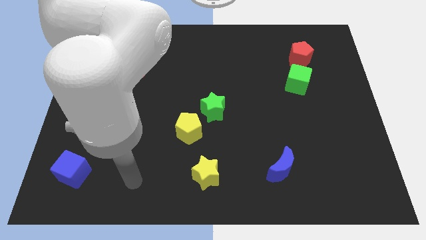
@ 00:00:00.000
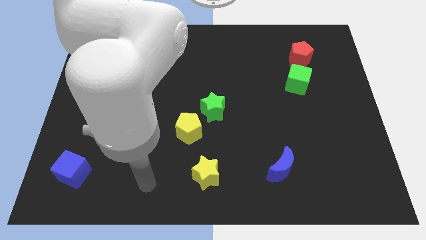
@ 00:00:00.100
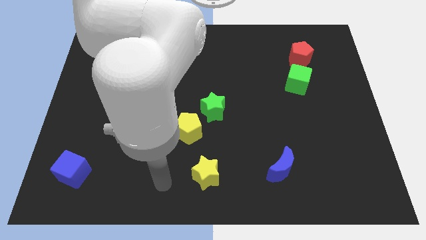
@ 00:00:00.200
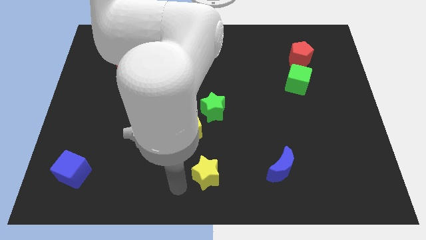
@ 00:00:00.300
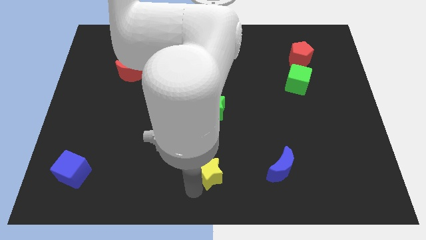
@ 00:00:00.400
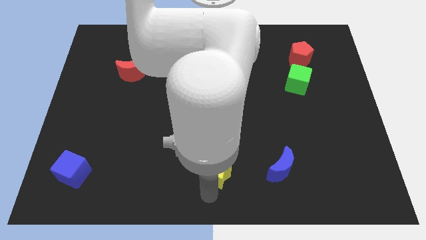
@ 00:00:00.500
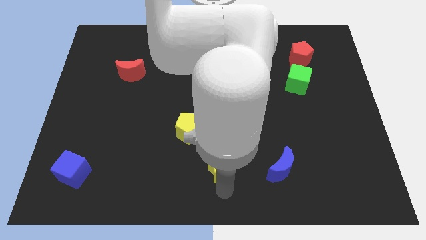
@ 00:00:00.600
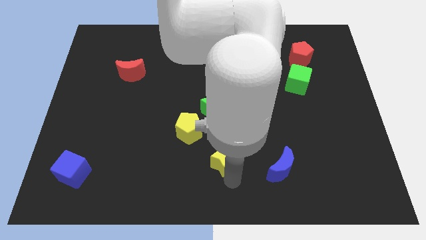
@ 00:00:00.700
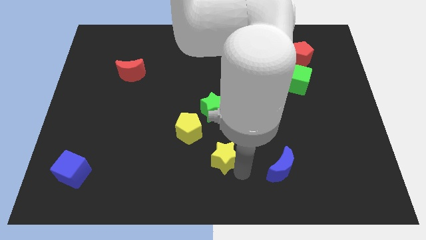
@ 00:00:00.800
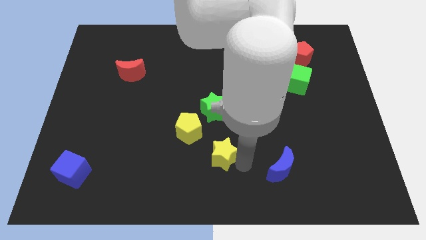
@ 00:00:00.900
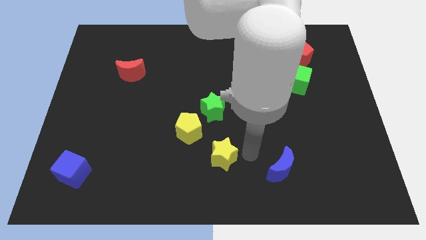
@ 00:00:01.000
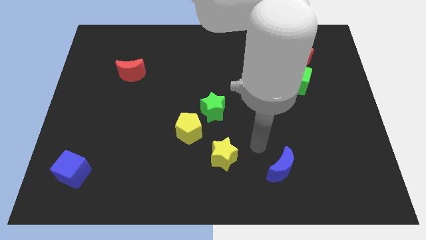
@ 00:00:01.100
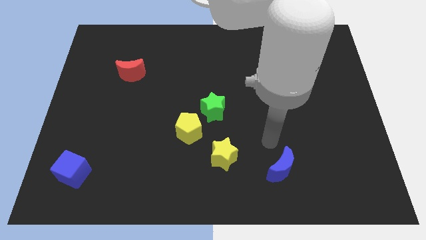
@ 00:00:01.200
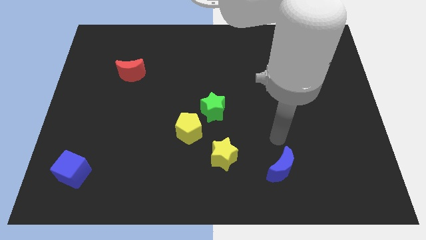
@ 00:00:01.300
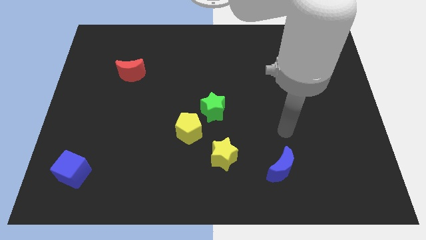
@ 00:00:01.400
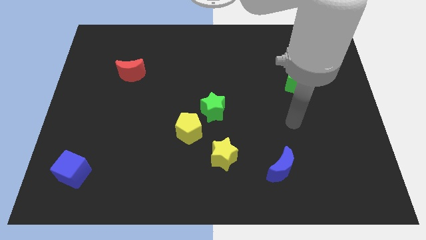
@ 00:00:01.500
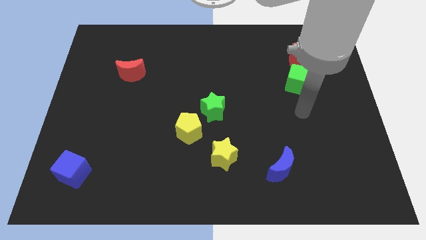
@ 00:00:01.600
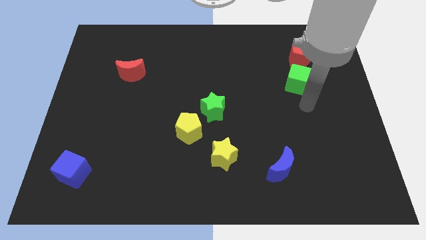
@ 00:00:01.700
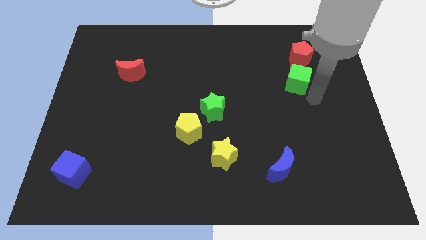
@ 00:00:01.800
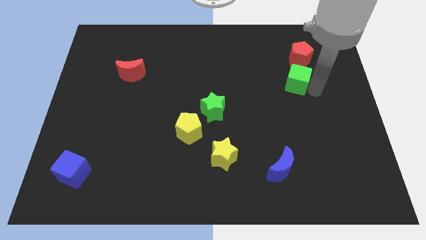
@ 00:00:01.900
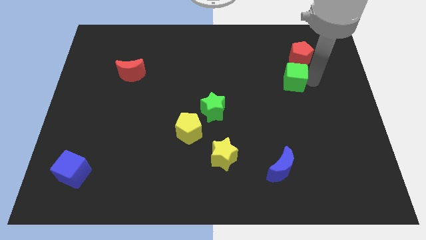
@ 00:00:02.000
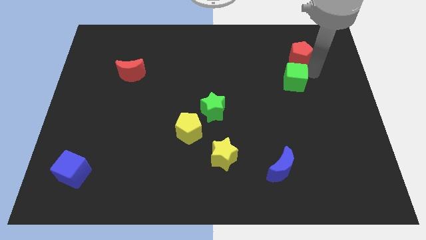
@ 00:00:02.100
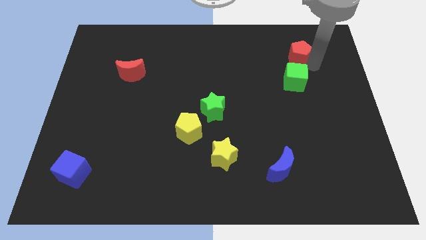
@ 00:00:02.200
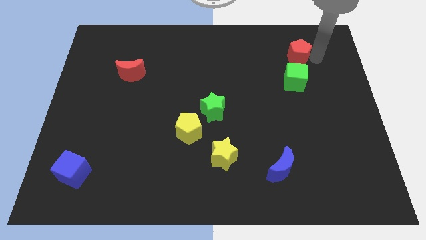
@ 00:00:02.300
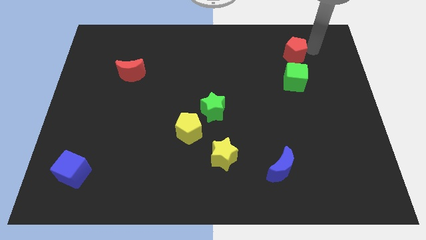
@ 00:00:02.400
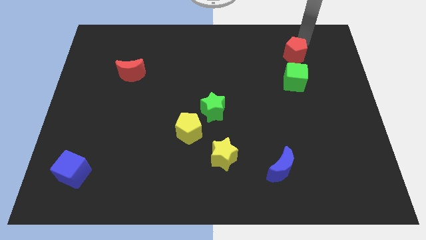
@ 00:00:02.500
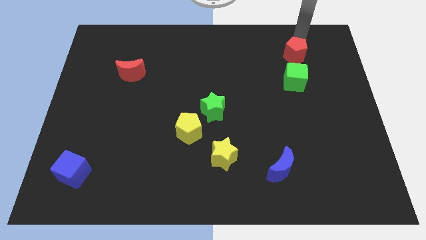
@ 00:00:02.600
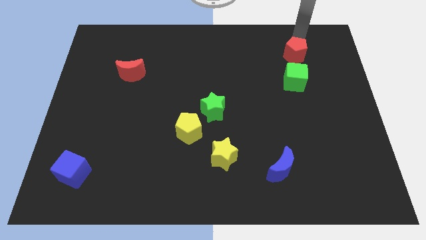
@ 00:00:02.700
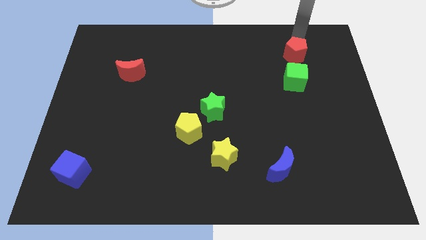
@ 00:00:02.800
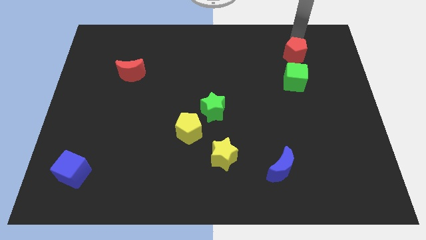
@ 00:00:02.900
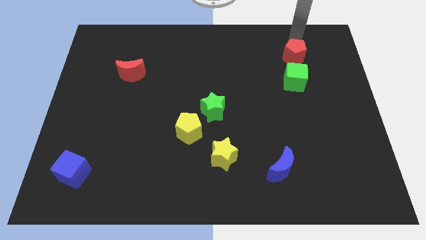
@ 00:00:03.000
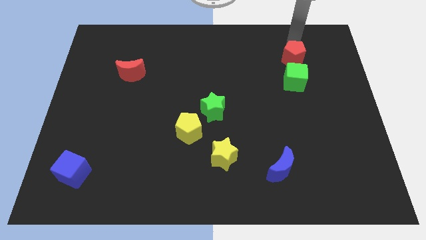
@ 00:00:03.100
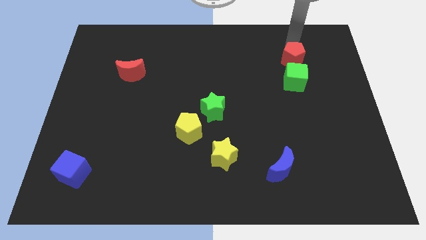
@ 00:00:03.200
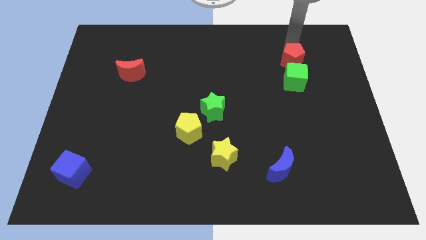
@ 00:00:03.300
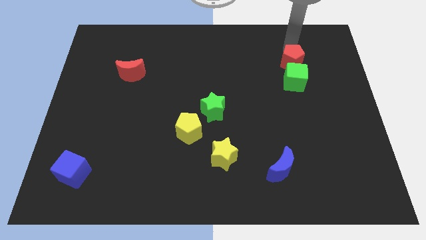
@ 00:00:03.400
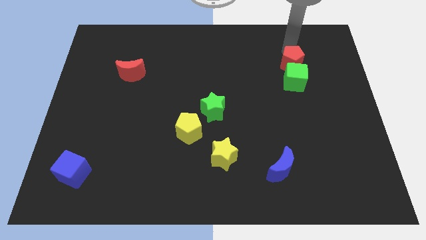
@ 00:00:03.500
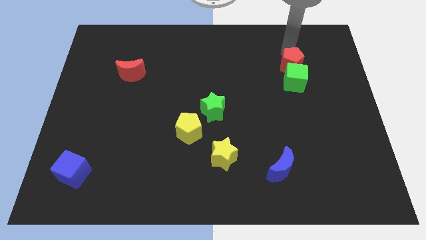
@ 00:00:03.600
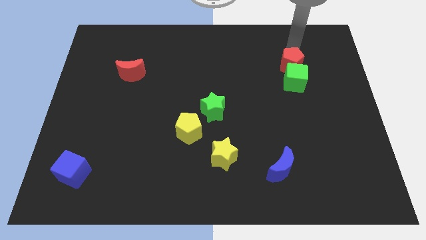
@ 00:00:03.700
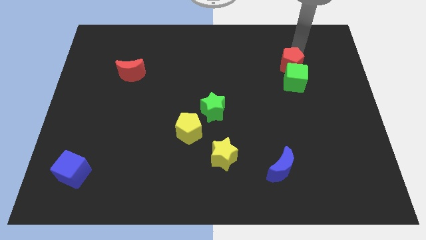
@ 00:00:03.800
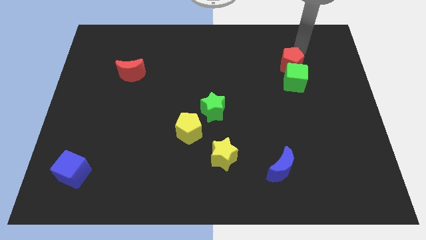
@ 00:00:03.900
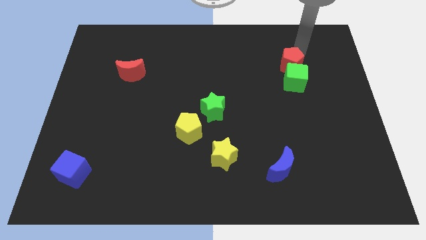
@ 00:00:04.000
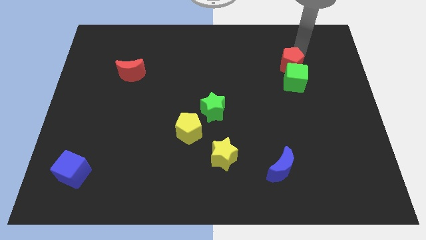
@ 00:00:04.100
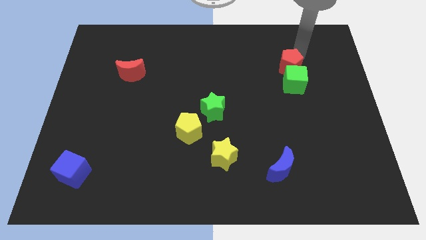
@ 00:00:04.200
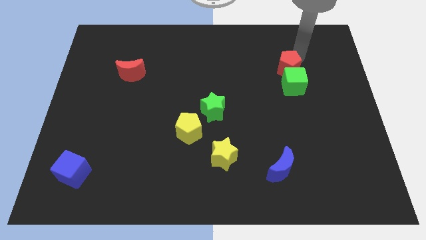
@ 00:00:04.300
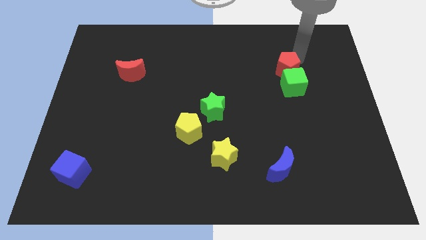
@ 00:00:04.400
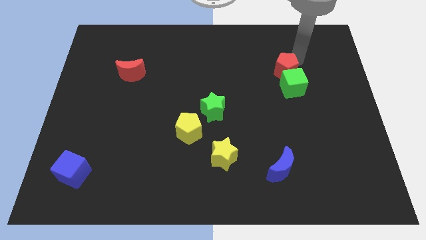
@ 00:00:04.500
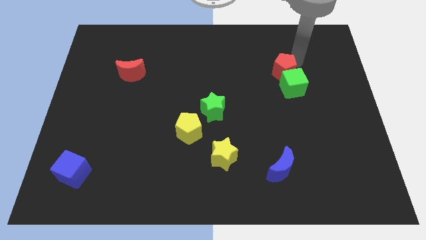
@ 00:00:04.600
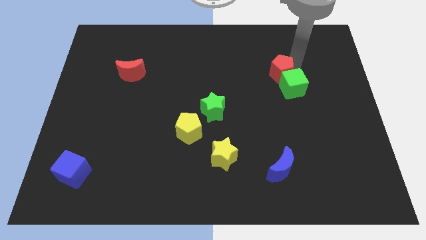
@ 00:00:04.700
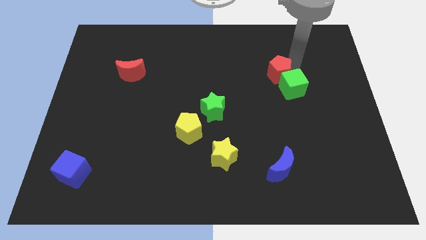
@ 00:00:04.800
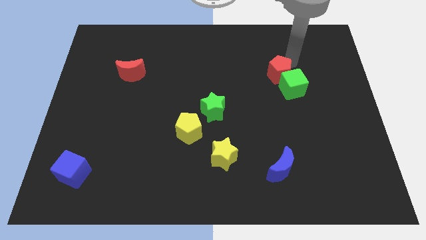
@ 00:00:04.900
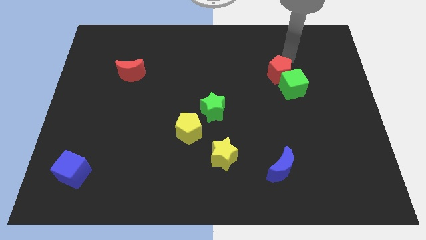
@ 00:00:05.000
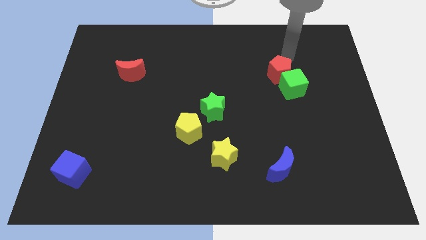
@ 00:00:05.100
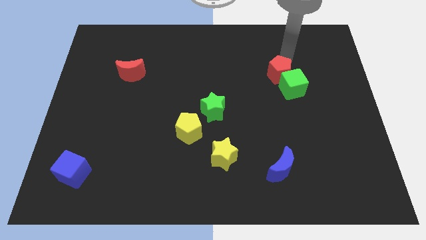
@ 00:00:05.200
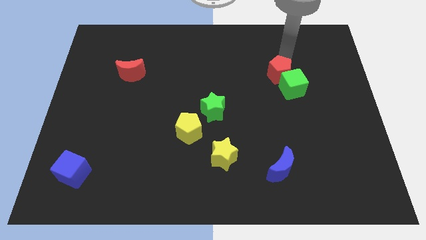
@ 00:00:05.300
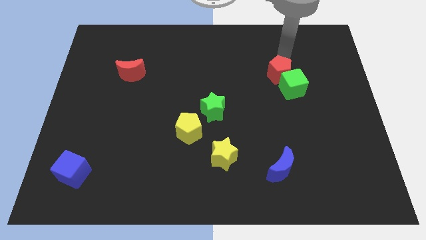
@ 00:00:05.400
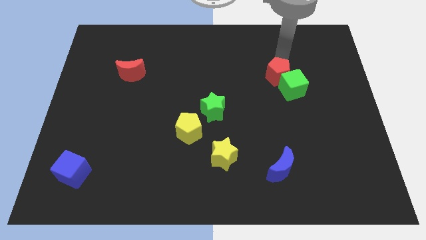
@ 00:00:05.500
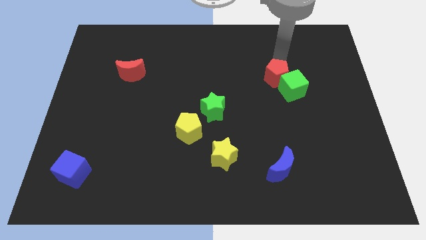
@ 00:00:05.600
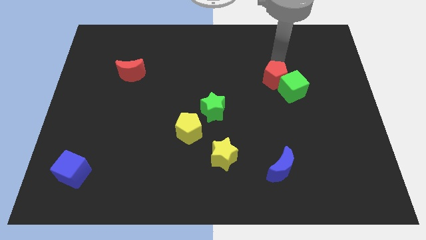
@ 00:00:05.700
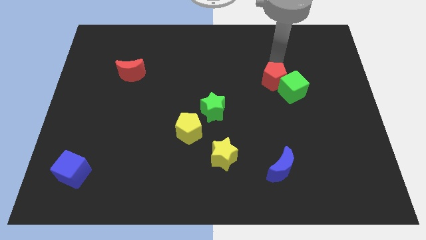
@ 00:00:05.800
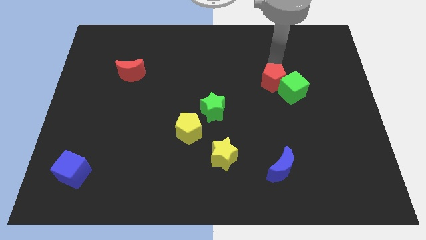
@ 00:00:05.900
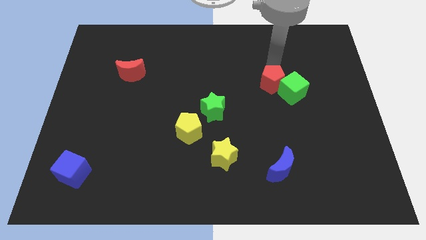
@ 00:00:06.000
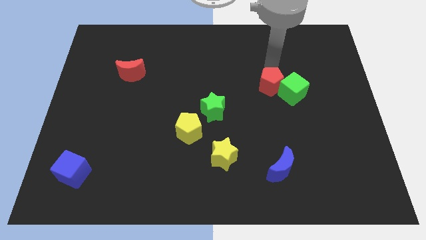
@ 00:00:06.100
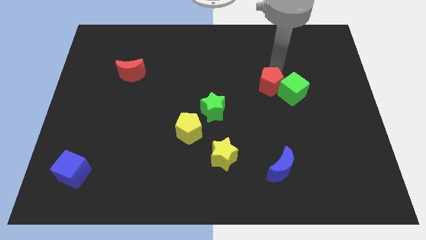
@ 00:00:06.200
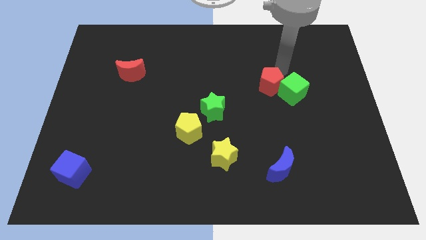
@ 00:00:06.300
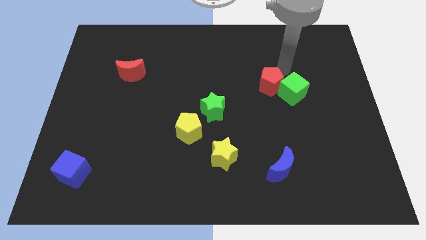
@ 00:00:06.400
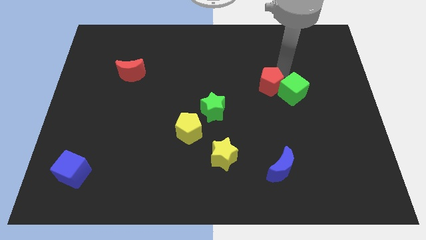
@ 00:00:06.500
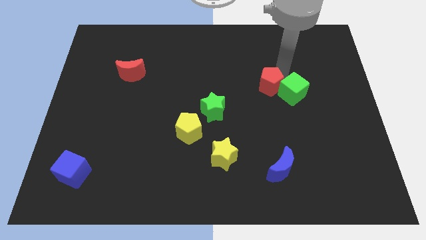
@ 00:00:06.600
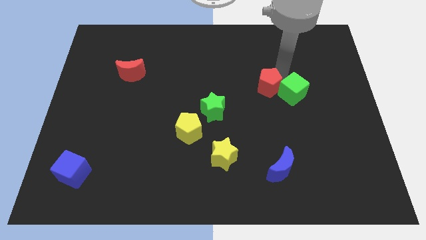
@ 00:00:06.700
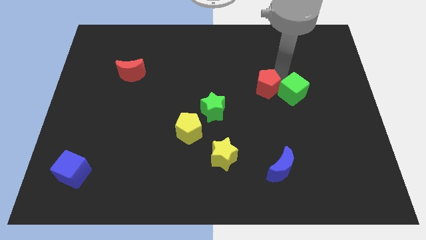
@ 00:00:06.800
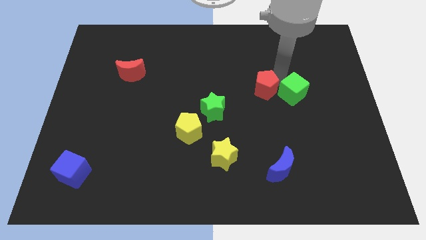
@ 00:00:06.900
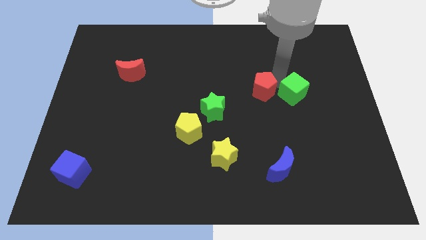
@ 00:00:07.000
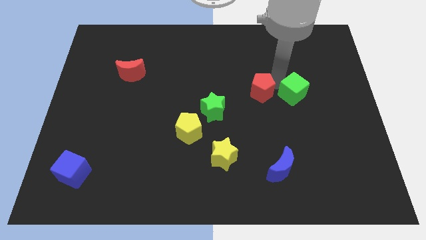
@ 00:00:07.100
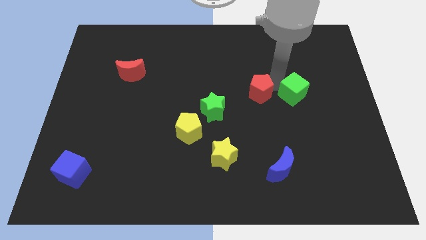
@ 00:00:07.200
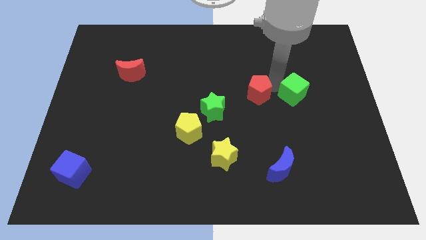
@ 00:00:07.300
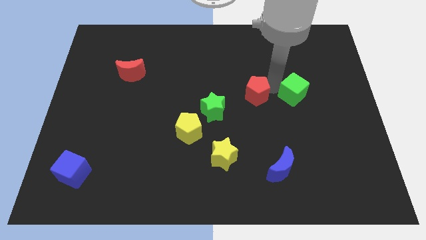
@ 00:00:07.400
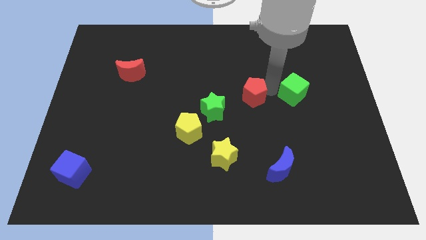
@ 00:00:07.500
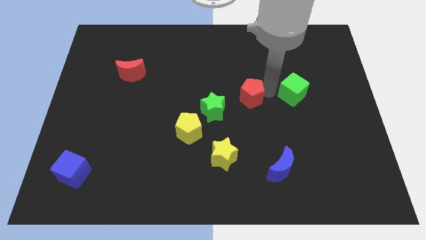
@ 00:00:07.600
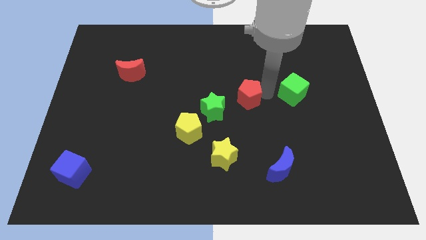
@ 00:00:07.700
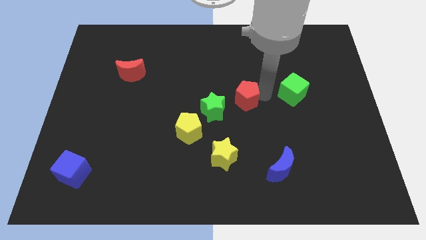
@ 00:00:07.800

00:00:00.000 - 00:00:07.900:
push the red pentagon diagonally down and left

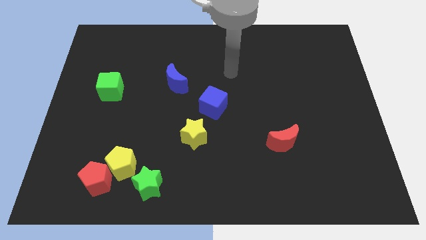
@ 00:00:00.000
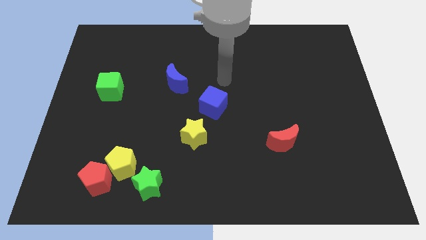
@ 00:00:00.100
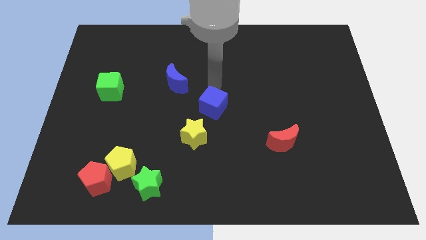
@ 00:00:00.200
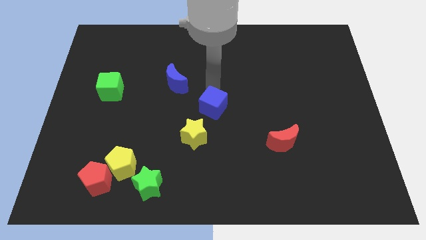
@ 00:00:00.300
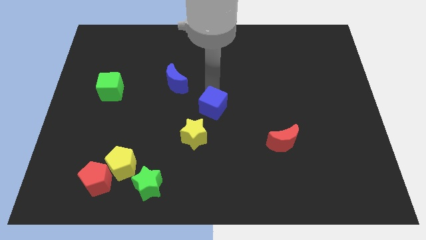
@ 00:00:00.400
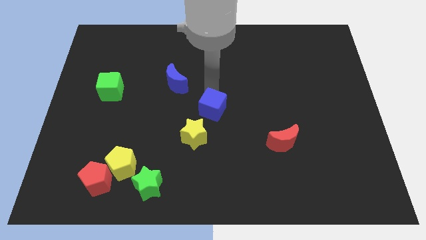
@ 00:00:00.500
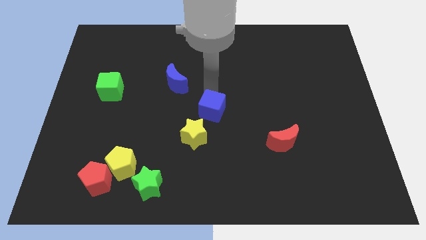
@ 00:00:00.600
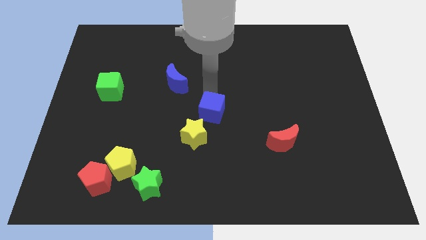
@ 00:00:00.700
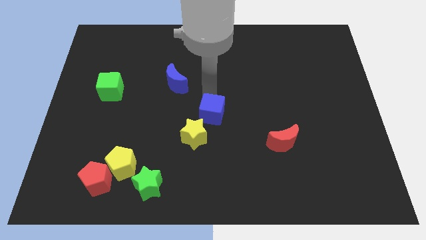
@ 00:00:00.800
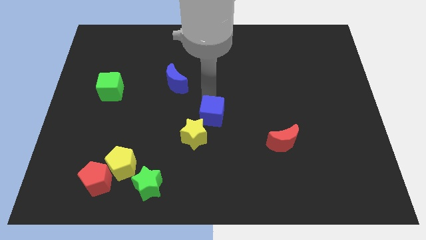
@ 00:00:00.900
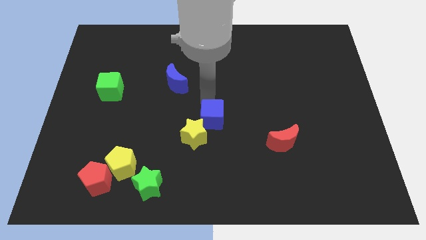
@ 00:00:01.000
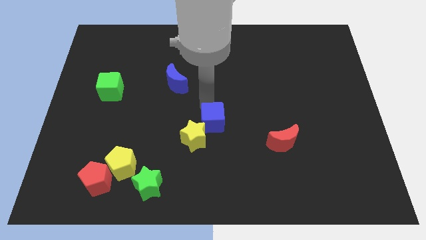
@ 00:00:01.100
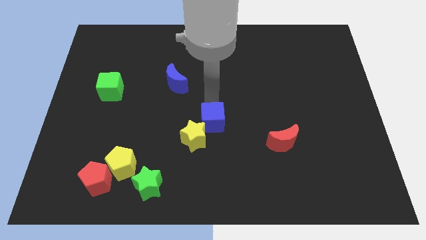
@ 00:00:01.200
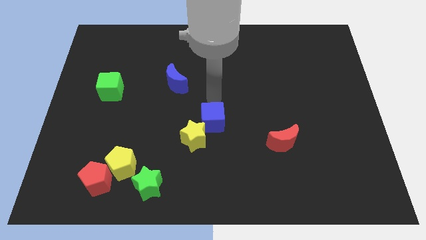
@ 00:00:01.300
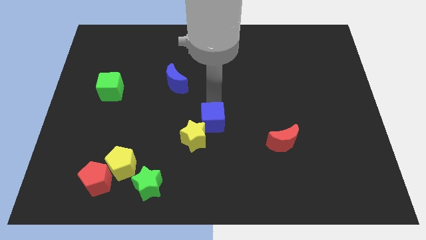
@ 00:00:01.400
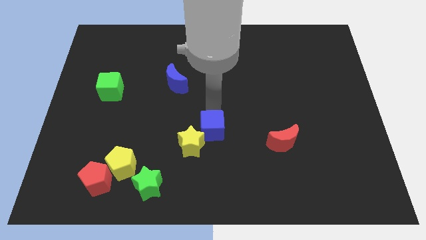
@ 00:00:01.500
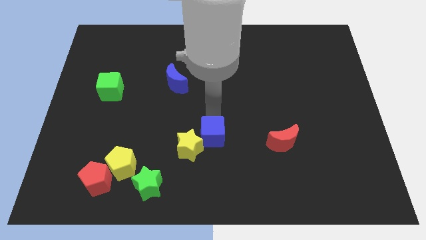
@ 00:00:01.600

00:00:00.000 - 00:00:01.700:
push the blue cube somewhat down
